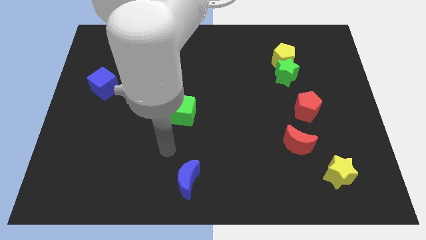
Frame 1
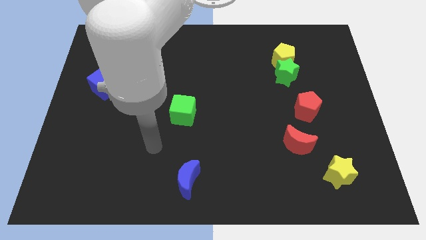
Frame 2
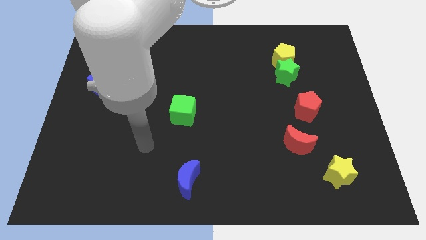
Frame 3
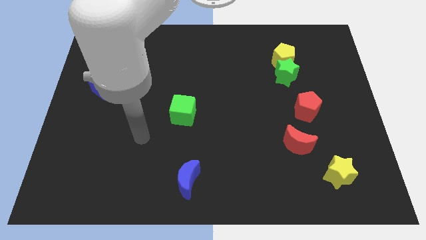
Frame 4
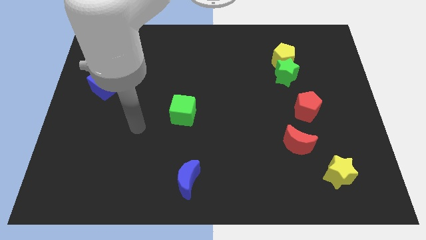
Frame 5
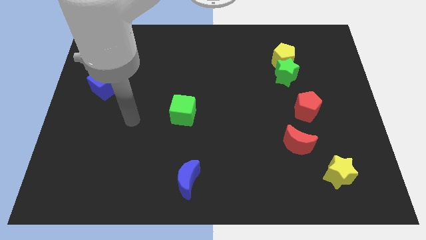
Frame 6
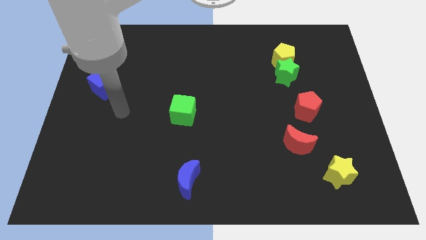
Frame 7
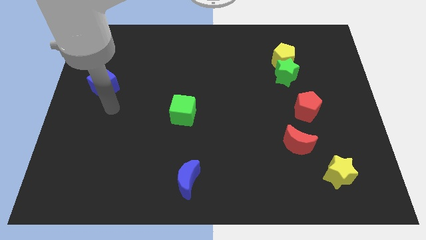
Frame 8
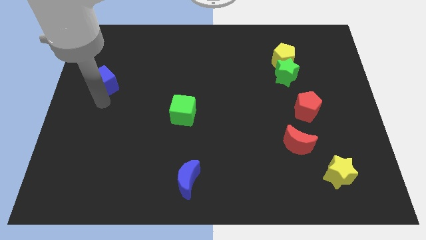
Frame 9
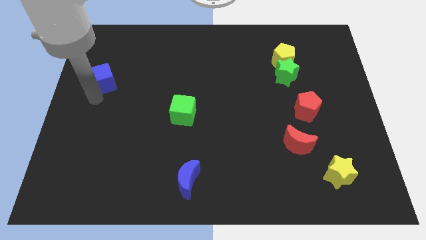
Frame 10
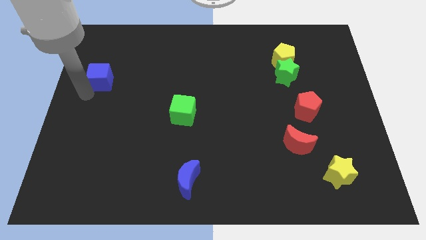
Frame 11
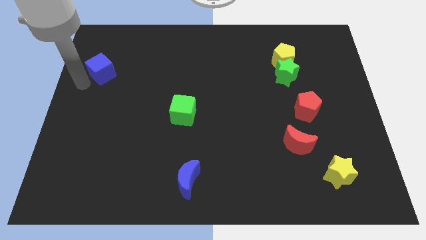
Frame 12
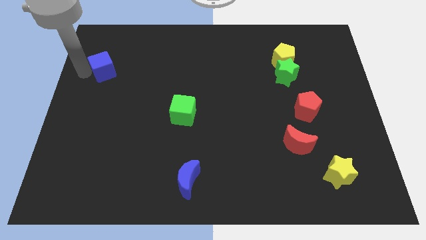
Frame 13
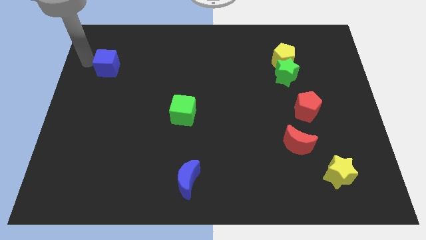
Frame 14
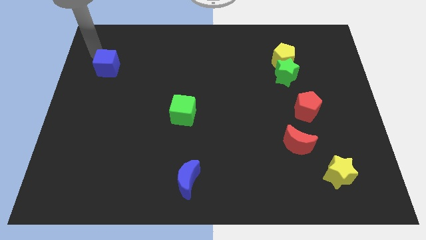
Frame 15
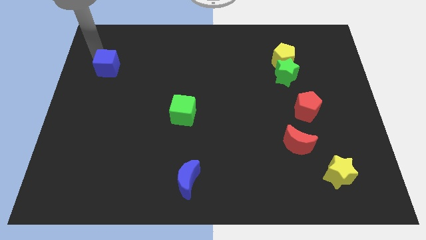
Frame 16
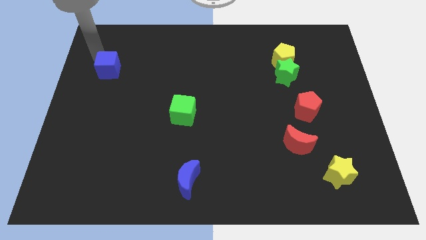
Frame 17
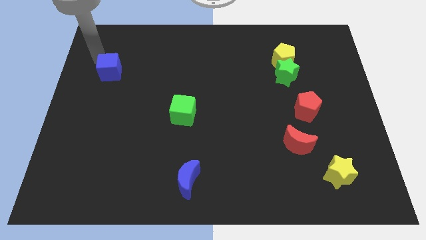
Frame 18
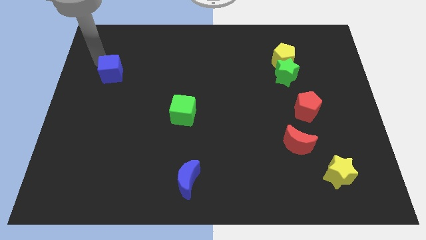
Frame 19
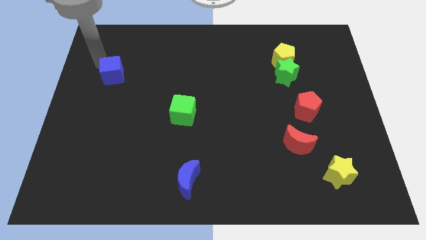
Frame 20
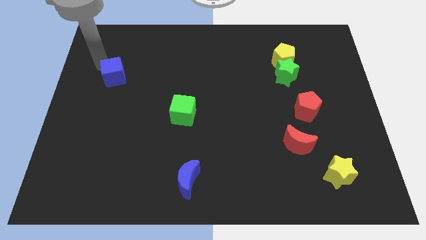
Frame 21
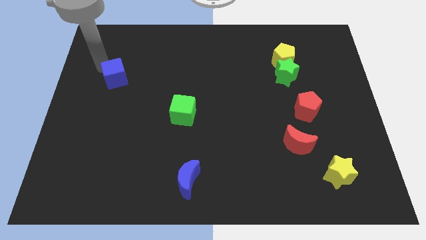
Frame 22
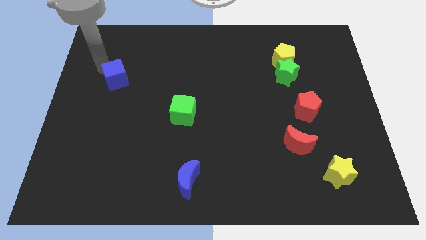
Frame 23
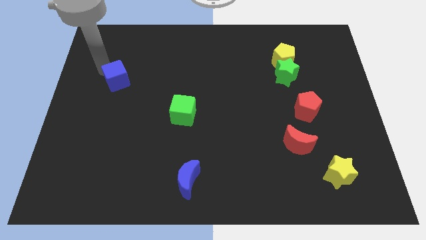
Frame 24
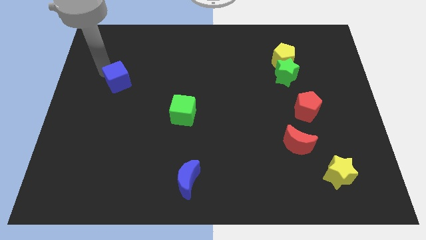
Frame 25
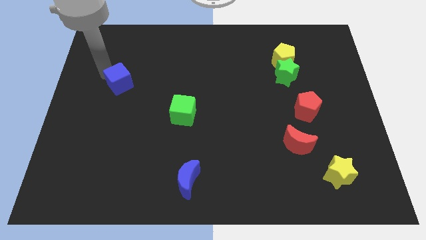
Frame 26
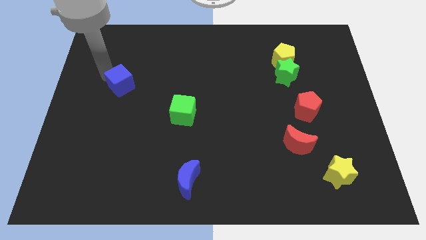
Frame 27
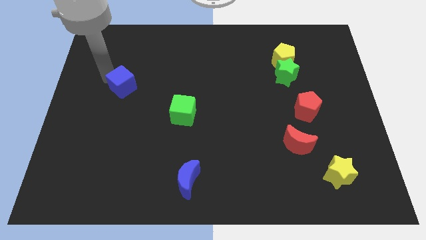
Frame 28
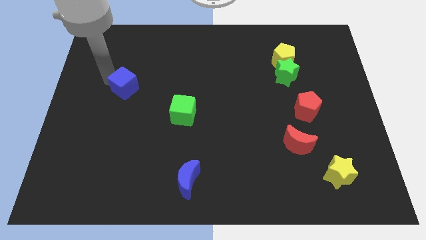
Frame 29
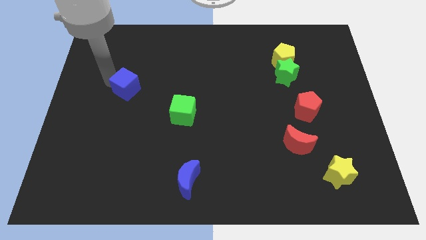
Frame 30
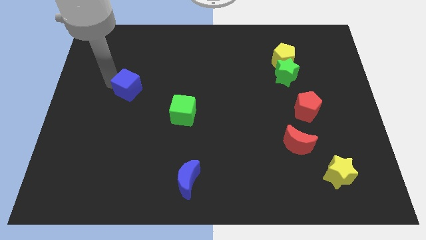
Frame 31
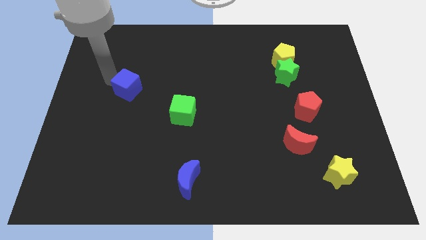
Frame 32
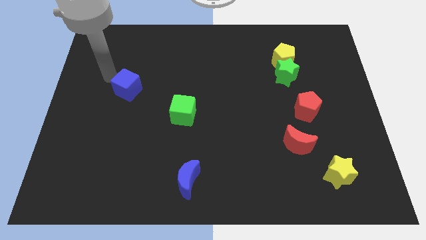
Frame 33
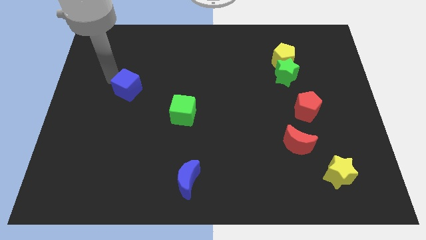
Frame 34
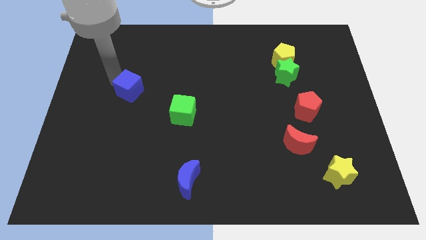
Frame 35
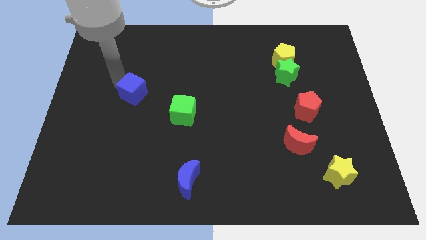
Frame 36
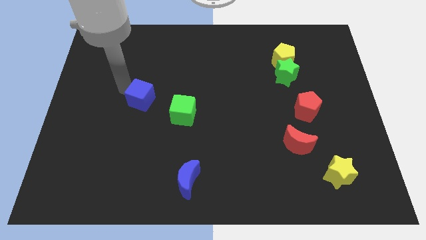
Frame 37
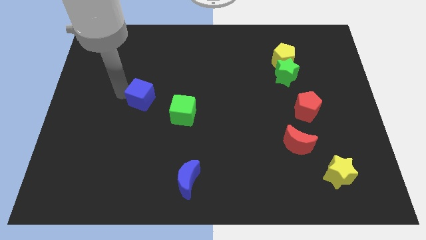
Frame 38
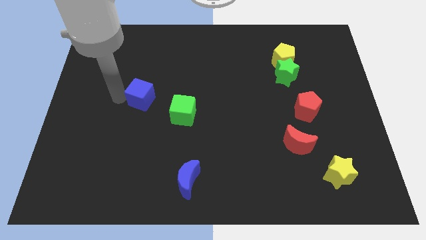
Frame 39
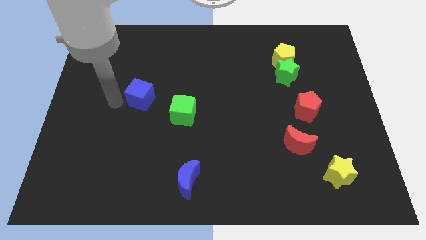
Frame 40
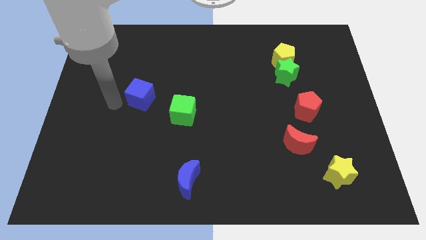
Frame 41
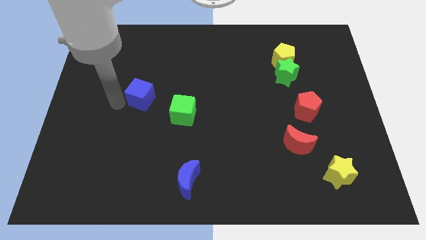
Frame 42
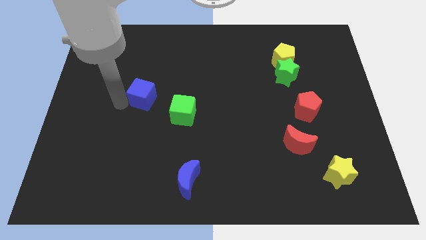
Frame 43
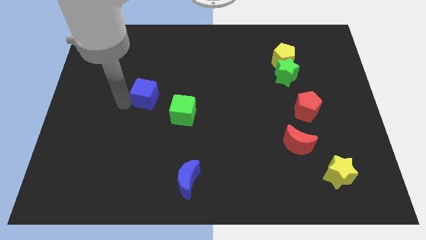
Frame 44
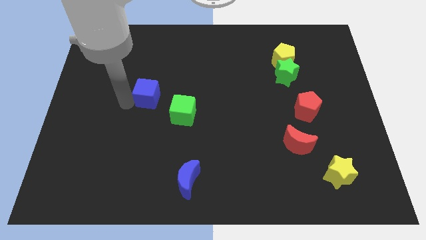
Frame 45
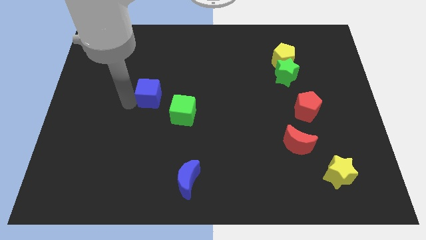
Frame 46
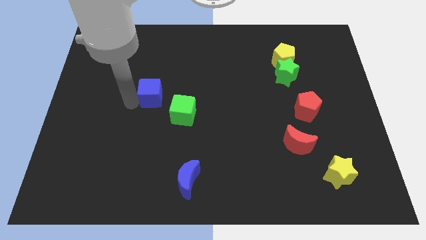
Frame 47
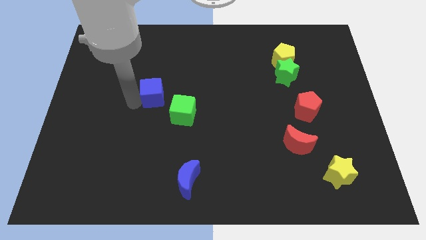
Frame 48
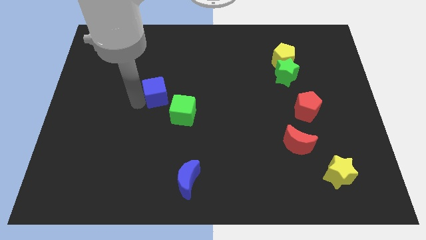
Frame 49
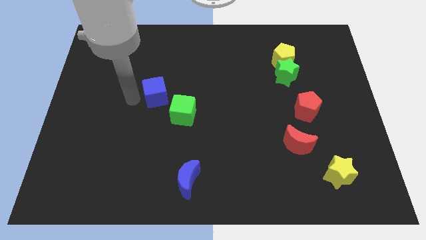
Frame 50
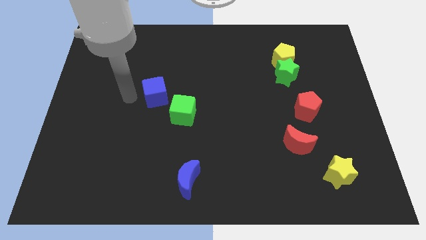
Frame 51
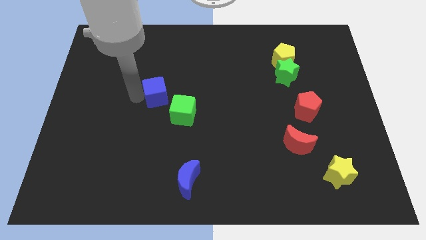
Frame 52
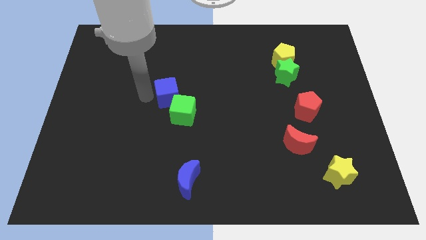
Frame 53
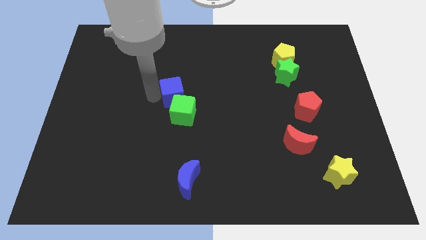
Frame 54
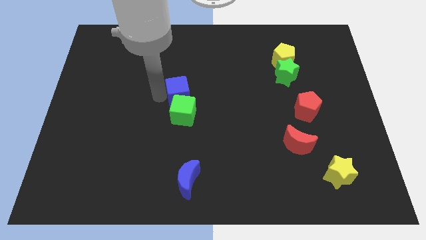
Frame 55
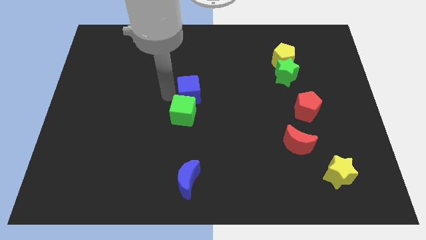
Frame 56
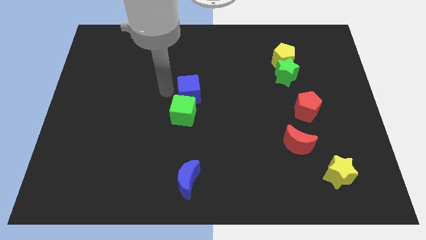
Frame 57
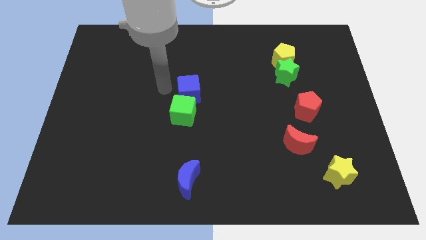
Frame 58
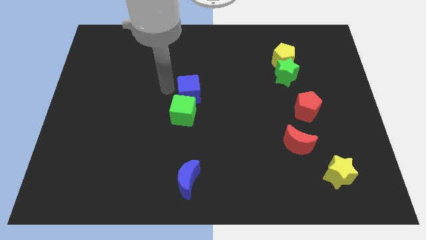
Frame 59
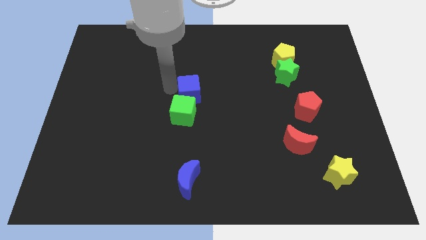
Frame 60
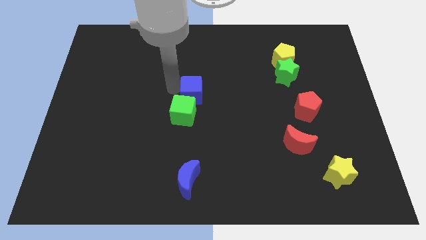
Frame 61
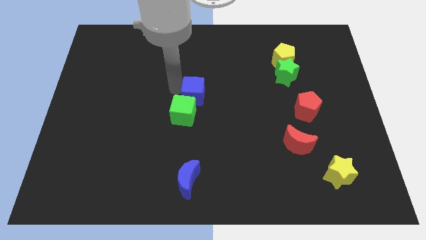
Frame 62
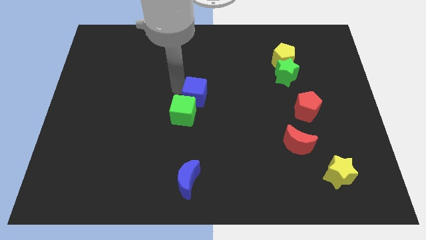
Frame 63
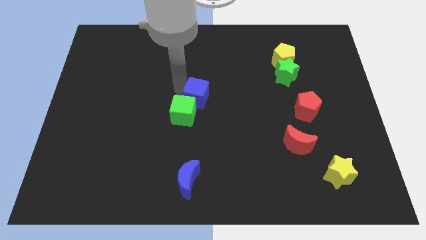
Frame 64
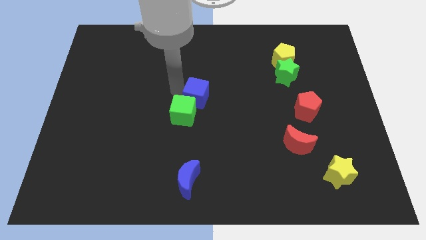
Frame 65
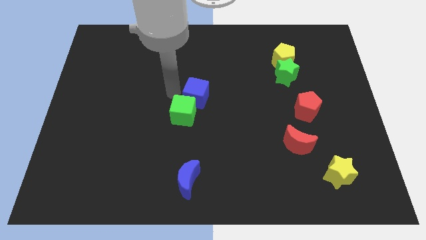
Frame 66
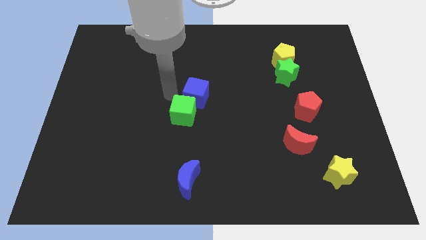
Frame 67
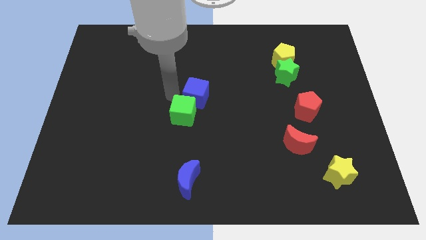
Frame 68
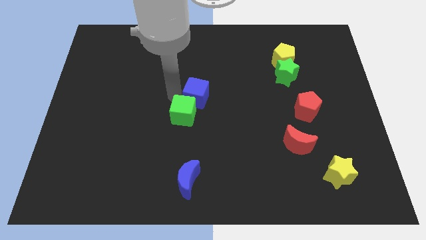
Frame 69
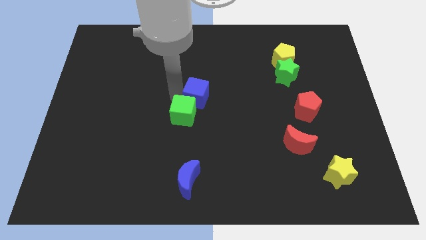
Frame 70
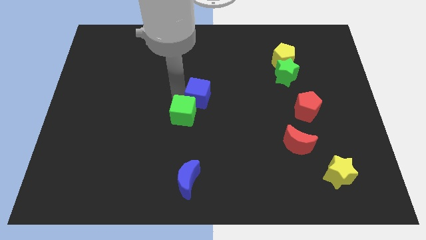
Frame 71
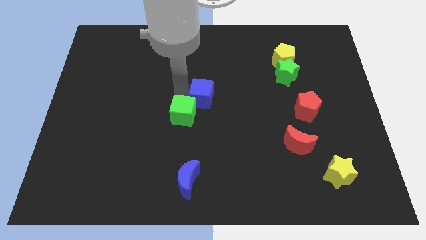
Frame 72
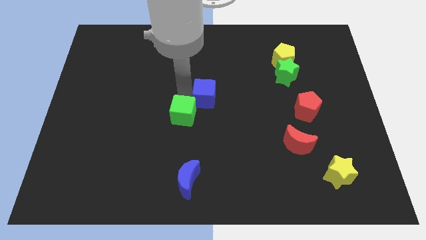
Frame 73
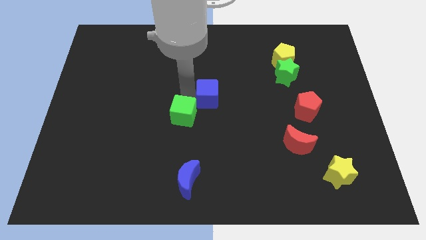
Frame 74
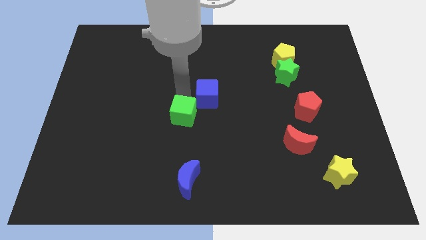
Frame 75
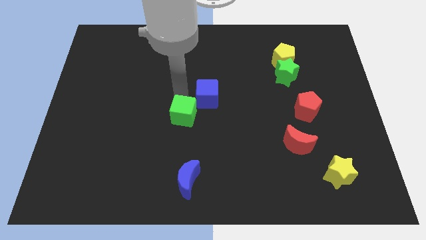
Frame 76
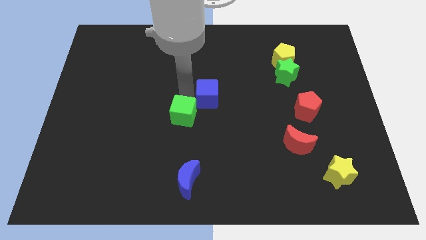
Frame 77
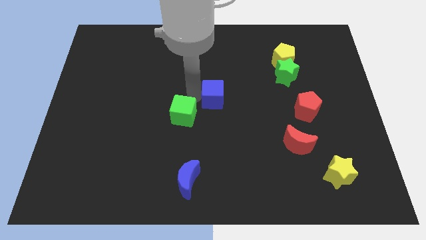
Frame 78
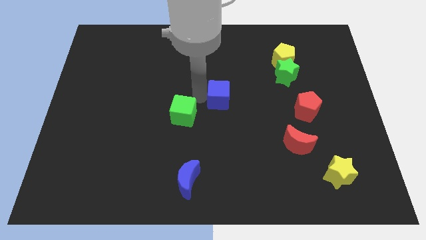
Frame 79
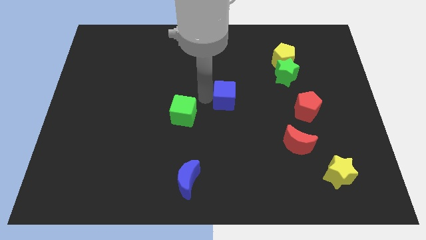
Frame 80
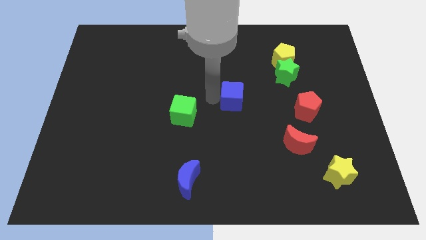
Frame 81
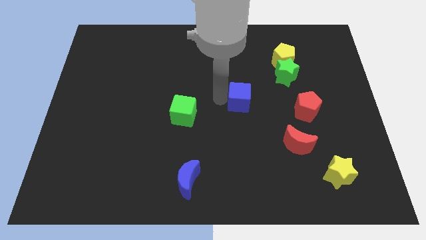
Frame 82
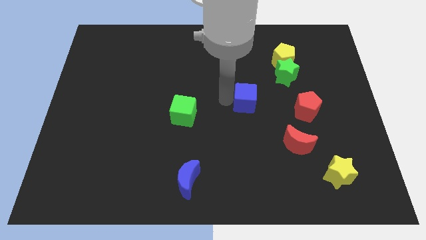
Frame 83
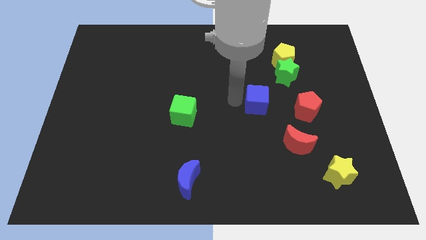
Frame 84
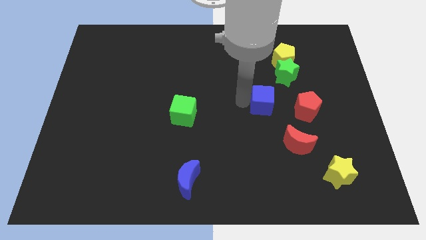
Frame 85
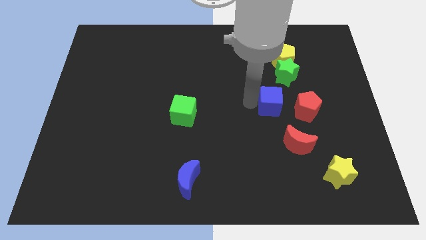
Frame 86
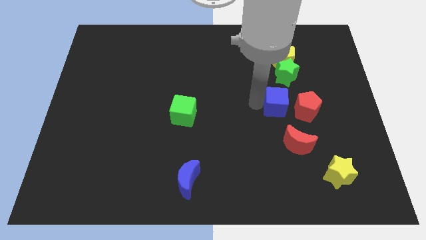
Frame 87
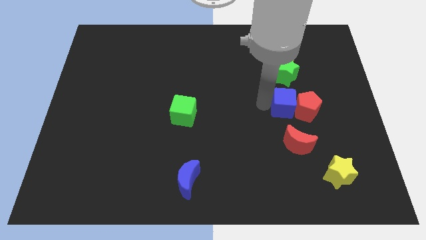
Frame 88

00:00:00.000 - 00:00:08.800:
move the blue cube next to the red pentagon
